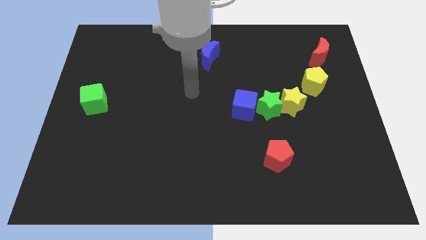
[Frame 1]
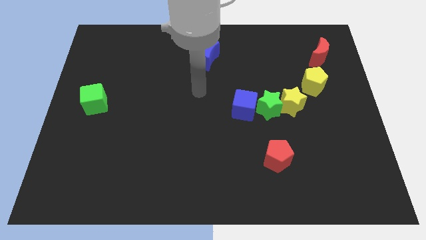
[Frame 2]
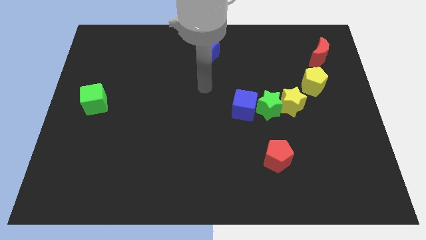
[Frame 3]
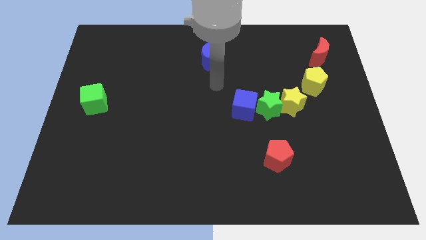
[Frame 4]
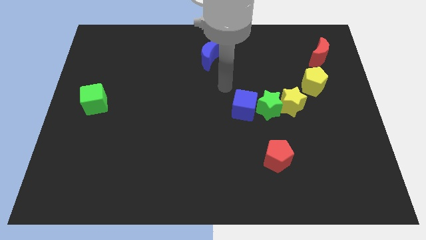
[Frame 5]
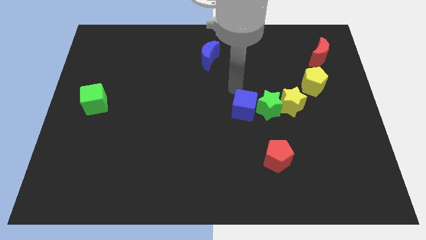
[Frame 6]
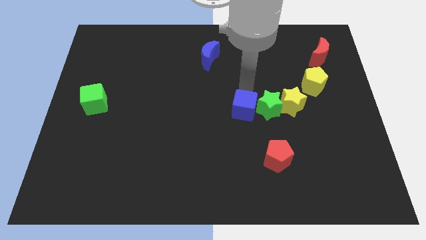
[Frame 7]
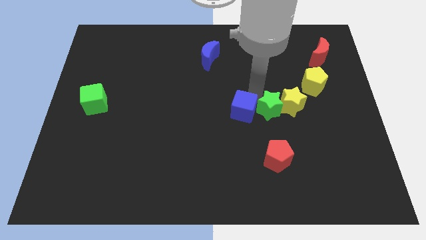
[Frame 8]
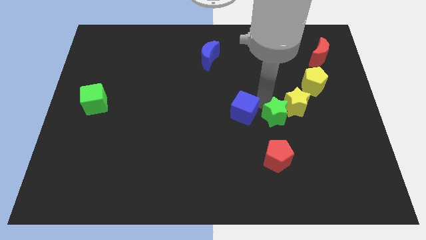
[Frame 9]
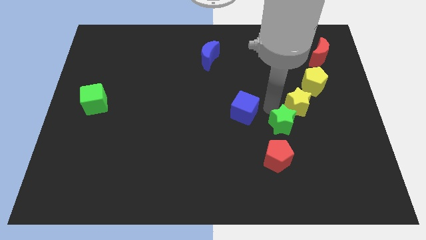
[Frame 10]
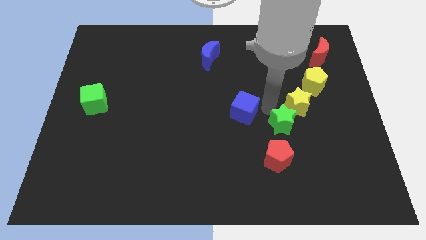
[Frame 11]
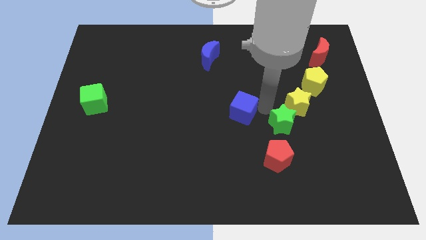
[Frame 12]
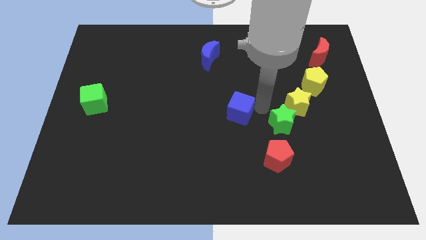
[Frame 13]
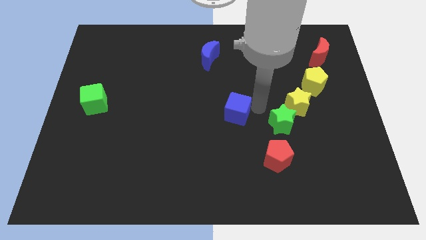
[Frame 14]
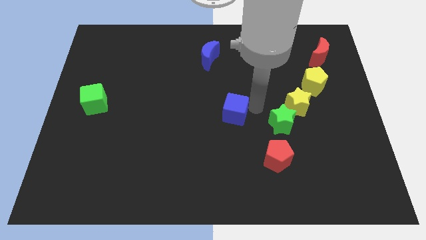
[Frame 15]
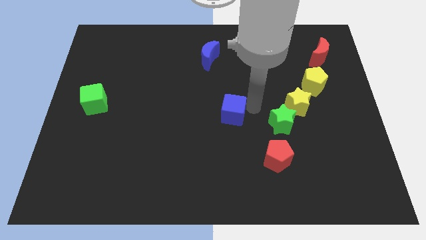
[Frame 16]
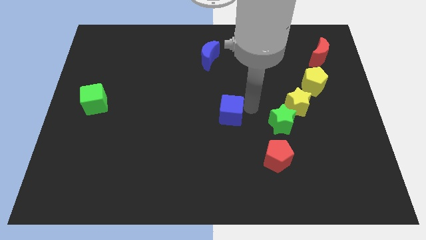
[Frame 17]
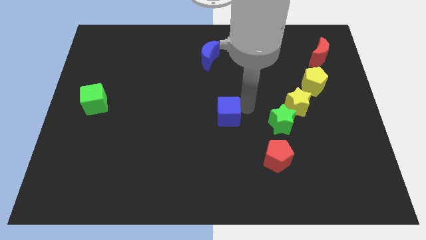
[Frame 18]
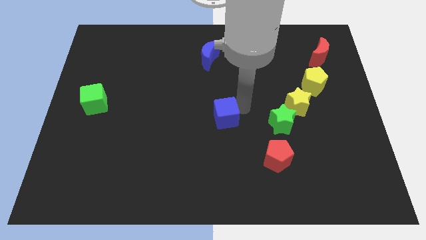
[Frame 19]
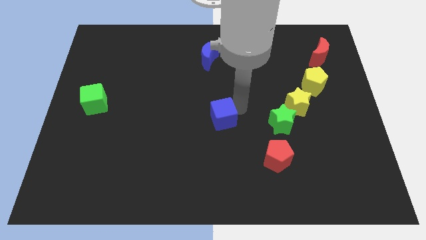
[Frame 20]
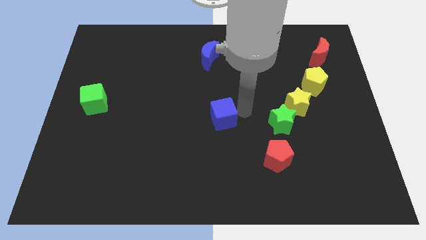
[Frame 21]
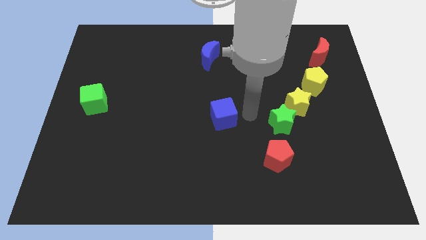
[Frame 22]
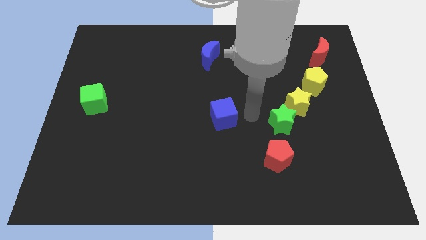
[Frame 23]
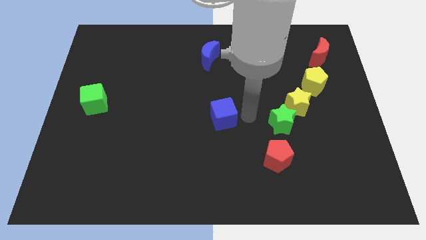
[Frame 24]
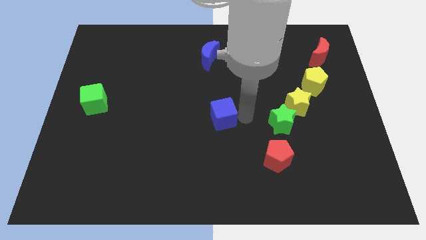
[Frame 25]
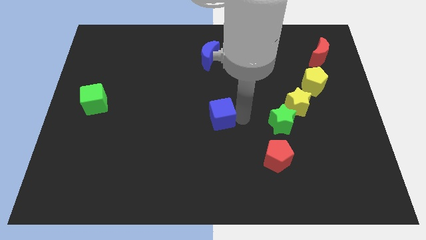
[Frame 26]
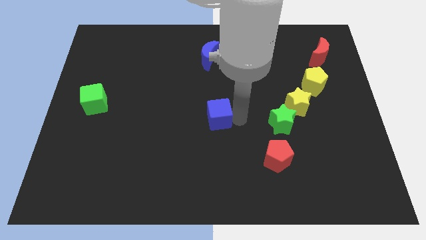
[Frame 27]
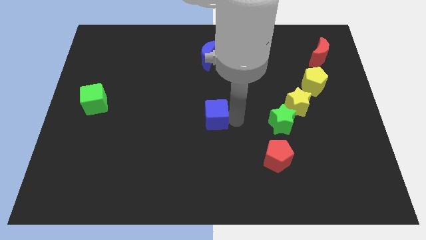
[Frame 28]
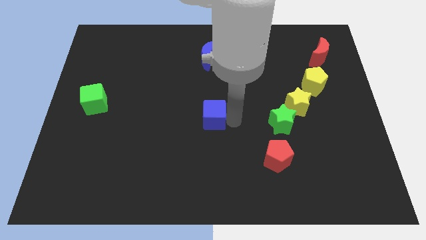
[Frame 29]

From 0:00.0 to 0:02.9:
slightly slide the blue cube to the left

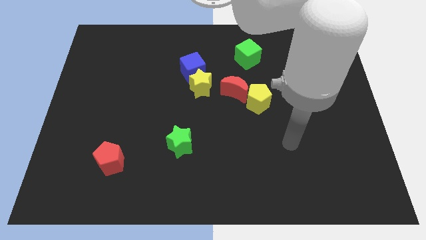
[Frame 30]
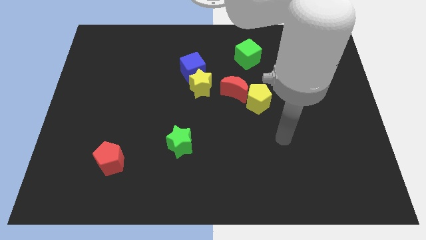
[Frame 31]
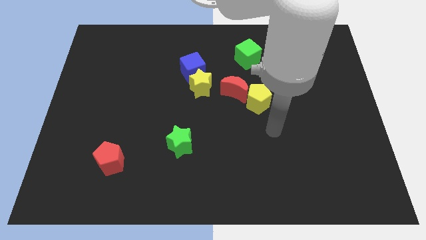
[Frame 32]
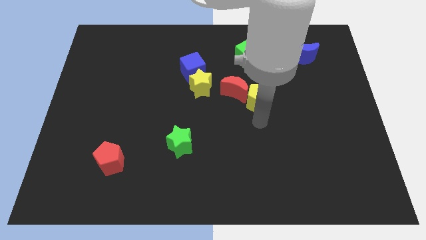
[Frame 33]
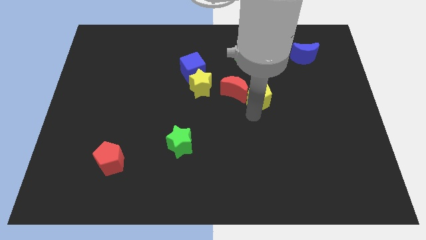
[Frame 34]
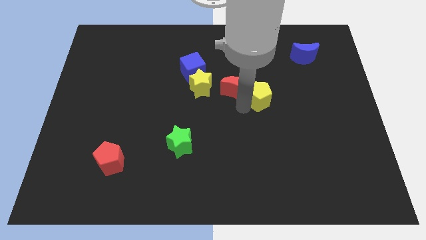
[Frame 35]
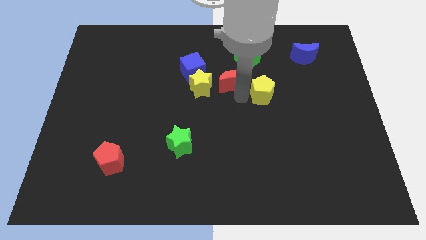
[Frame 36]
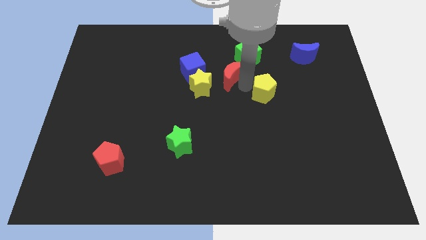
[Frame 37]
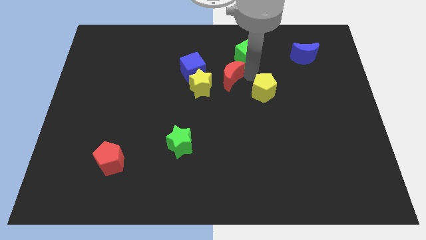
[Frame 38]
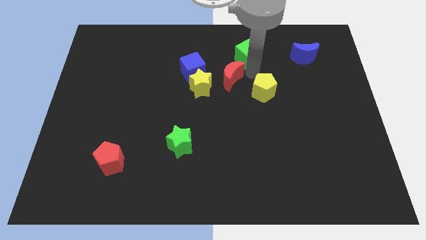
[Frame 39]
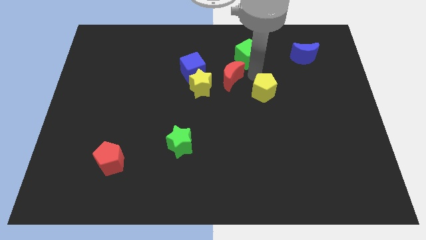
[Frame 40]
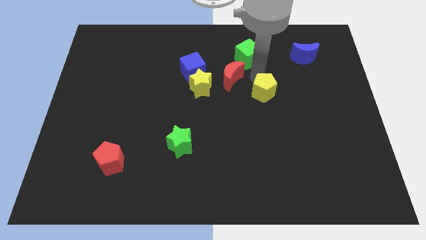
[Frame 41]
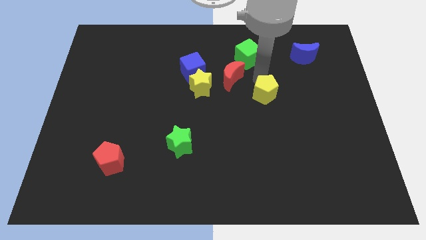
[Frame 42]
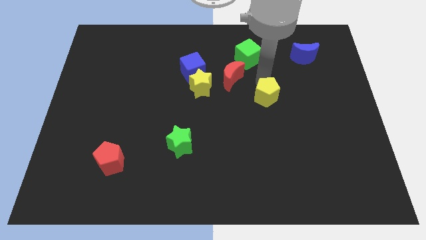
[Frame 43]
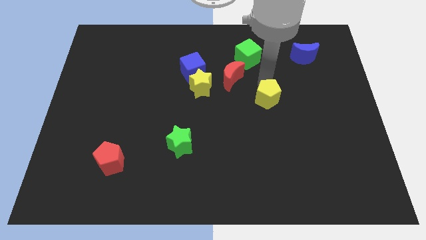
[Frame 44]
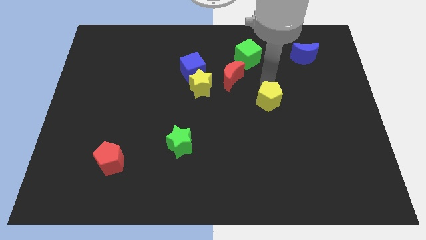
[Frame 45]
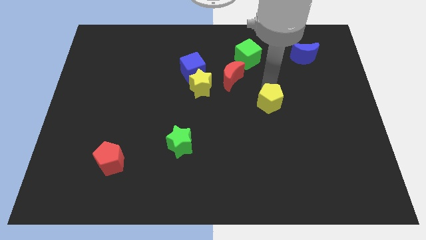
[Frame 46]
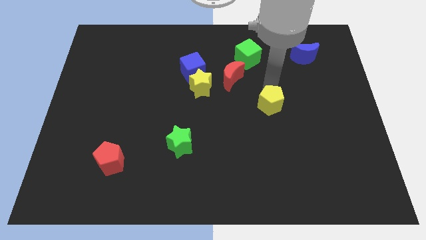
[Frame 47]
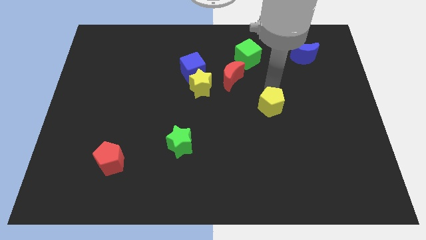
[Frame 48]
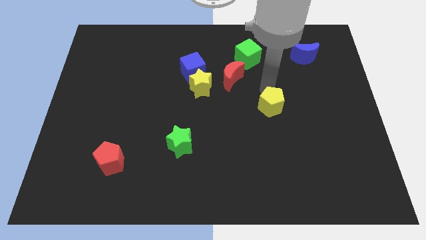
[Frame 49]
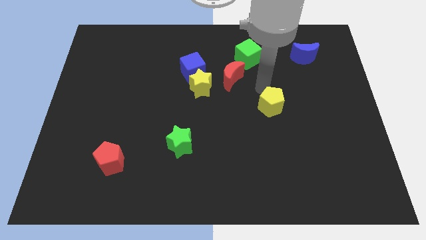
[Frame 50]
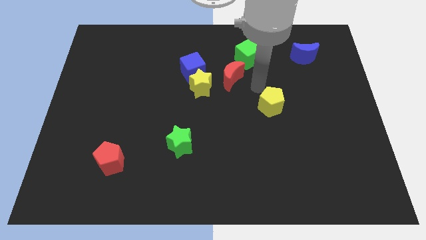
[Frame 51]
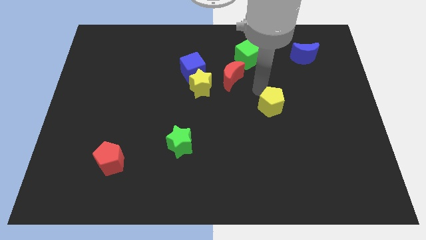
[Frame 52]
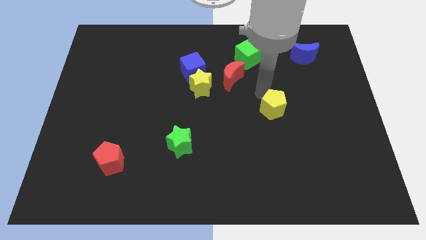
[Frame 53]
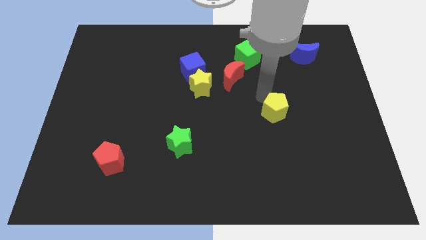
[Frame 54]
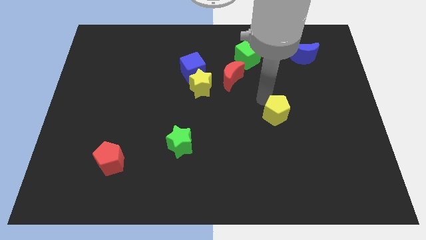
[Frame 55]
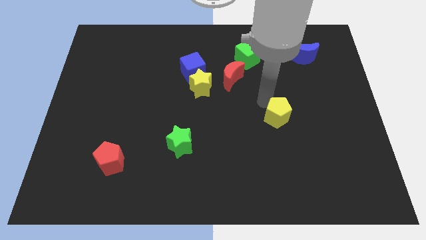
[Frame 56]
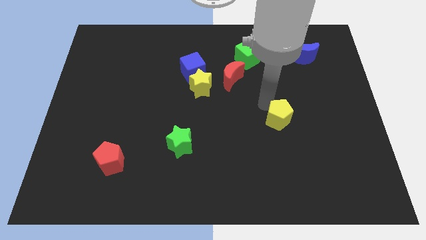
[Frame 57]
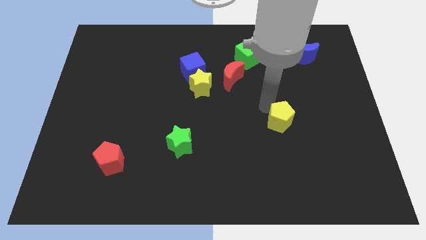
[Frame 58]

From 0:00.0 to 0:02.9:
move the yellow pentagon downwards and to the right diagonally a little

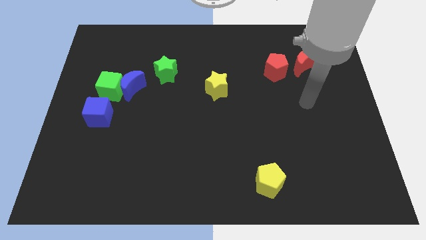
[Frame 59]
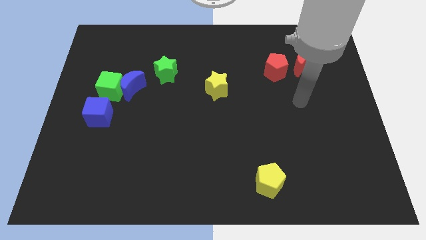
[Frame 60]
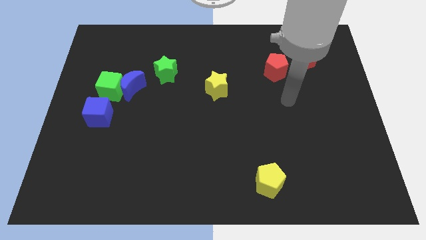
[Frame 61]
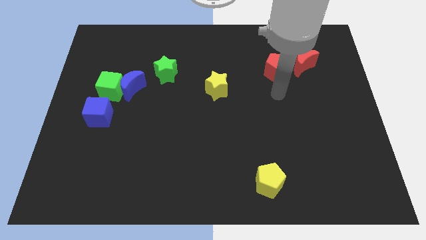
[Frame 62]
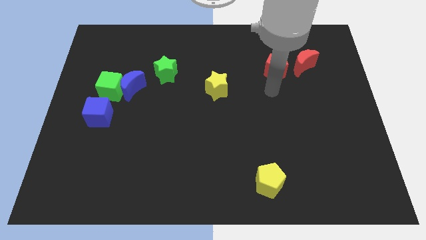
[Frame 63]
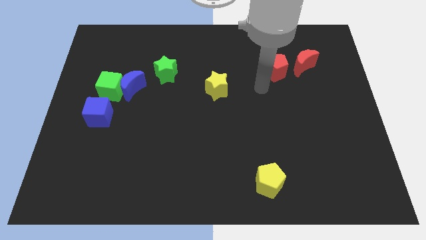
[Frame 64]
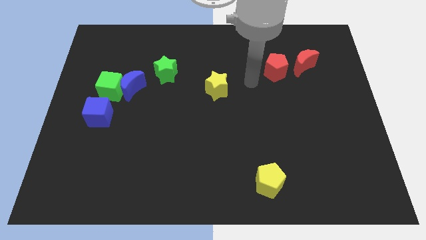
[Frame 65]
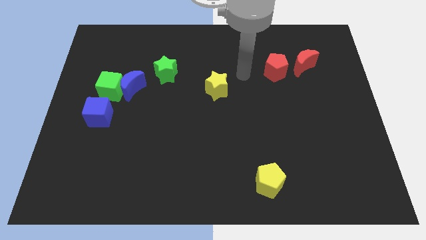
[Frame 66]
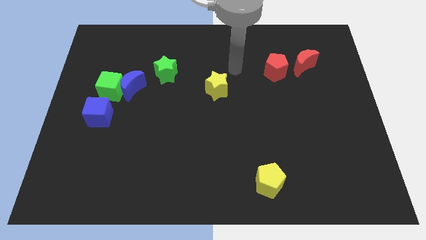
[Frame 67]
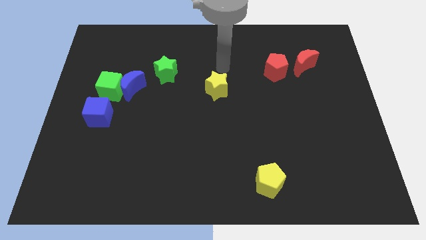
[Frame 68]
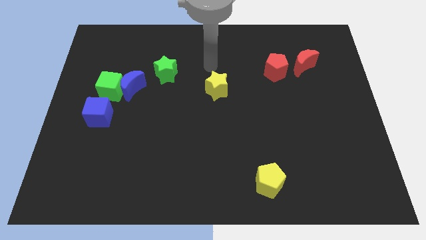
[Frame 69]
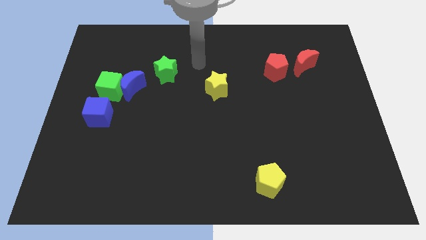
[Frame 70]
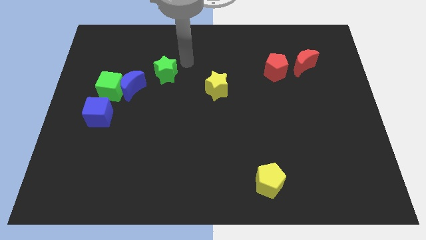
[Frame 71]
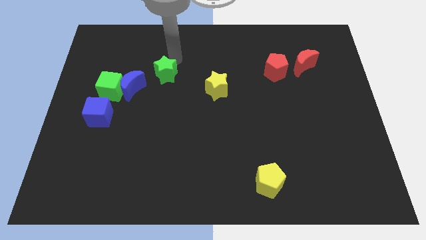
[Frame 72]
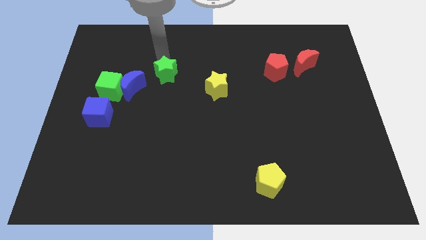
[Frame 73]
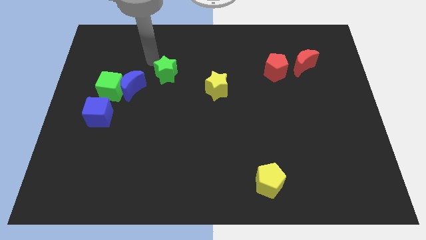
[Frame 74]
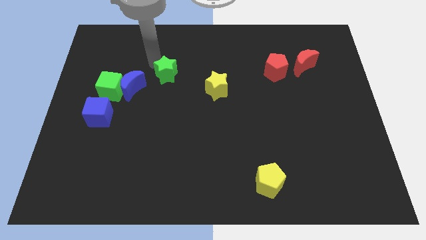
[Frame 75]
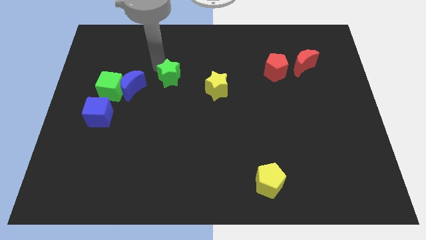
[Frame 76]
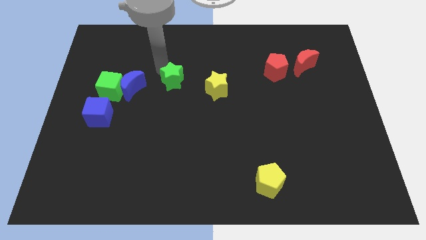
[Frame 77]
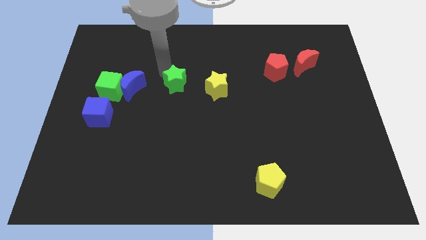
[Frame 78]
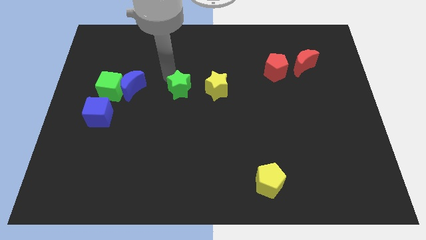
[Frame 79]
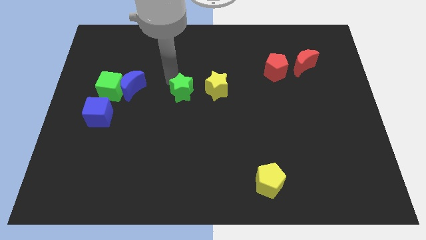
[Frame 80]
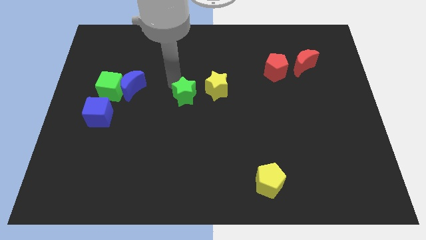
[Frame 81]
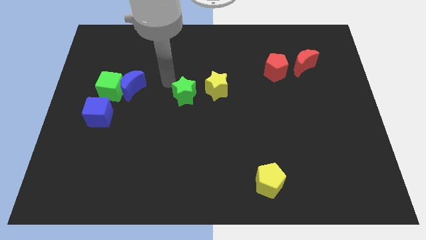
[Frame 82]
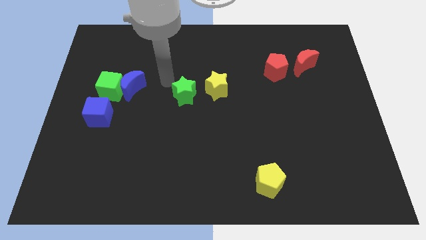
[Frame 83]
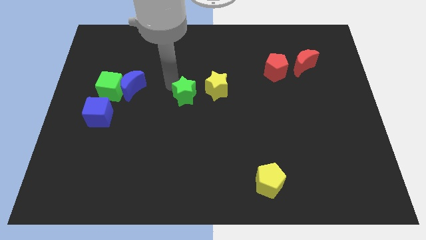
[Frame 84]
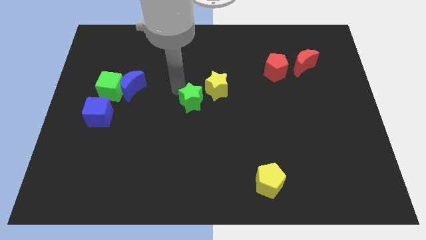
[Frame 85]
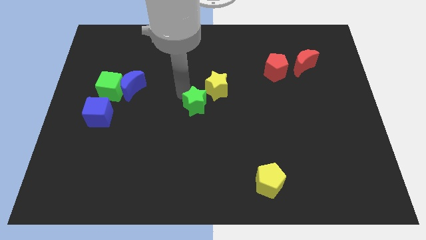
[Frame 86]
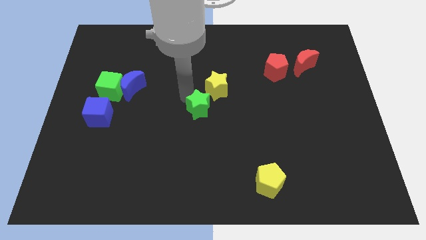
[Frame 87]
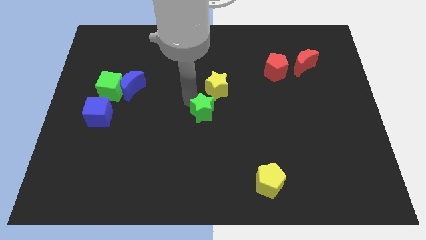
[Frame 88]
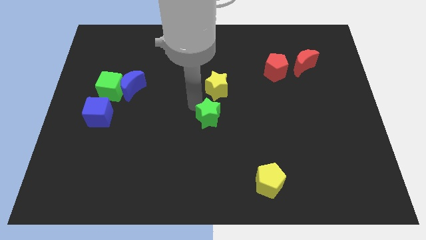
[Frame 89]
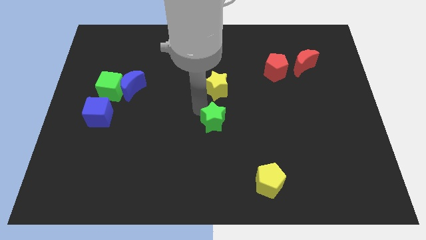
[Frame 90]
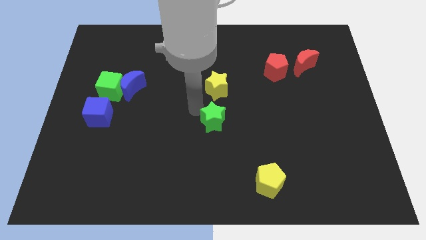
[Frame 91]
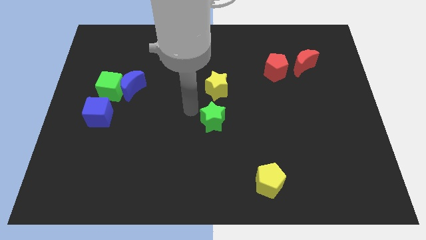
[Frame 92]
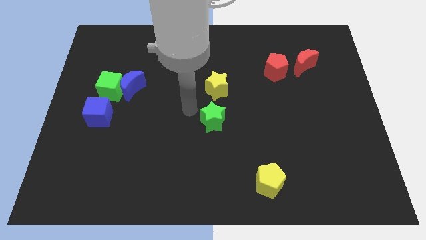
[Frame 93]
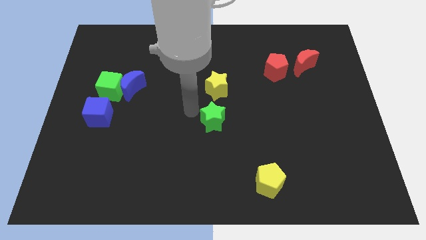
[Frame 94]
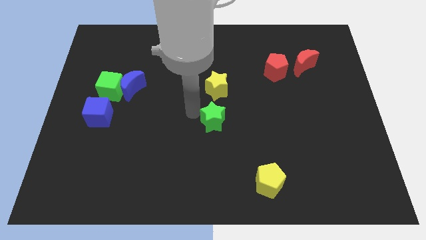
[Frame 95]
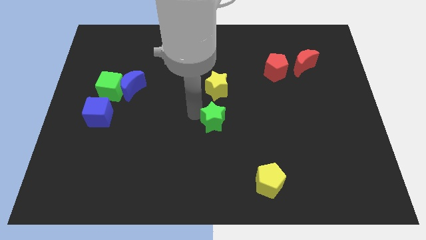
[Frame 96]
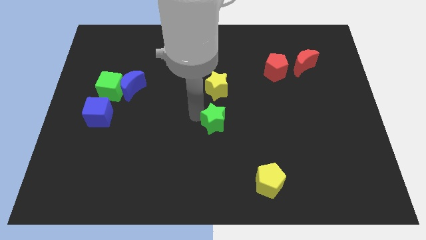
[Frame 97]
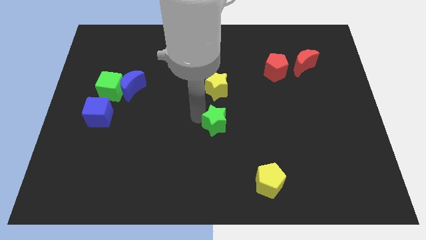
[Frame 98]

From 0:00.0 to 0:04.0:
move the green star down and to the right
